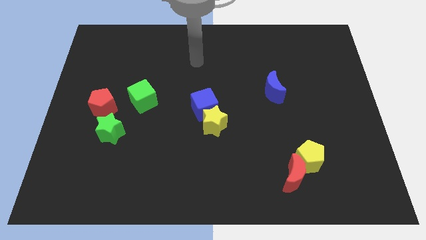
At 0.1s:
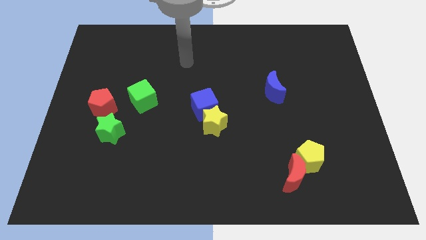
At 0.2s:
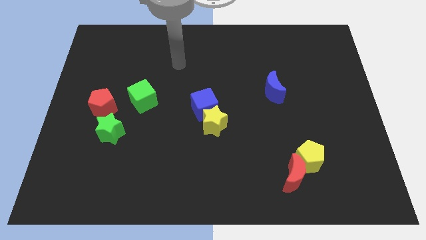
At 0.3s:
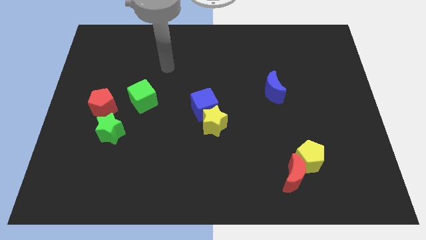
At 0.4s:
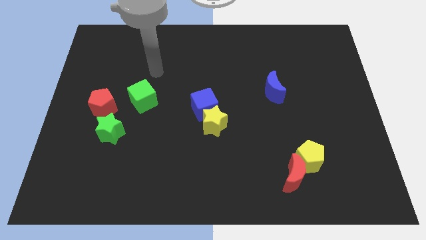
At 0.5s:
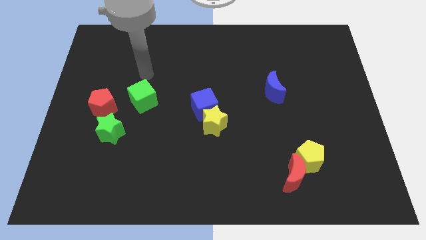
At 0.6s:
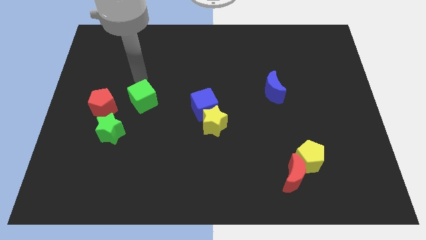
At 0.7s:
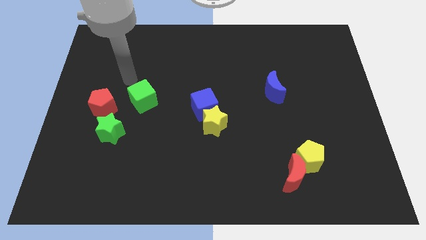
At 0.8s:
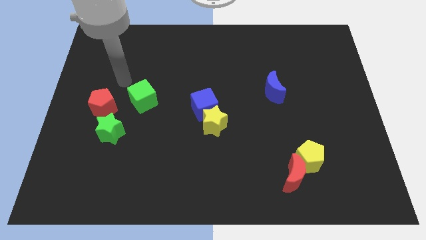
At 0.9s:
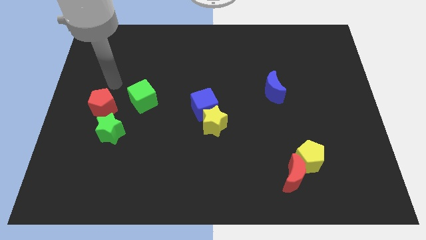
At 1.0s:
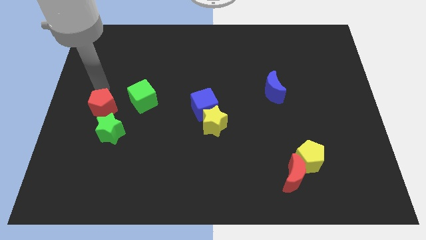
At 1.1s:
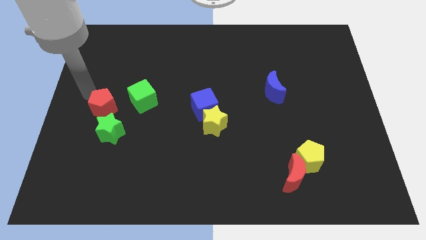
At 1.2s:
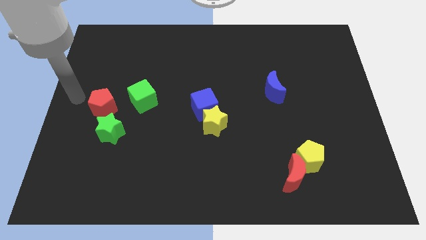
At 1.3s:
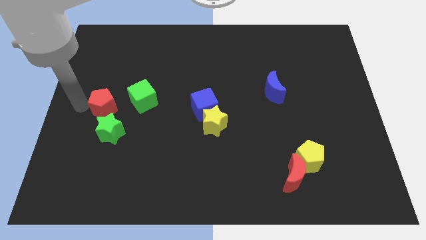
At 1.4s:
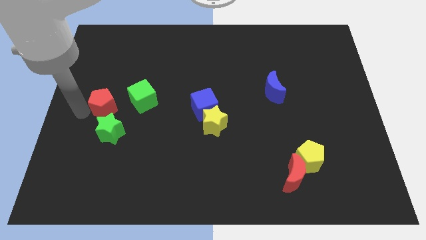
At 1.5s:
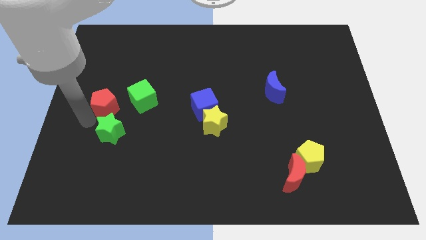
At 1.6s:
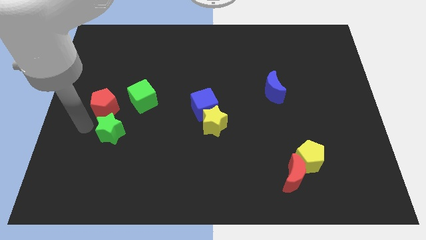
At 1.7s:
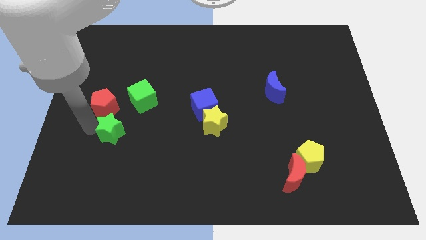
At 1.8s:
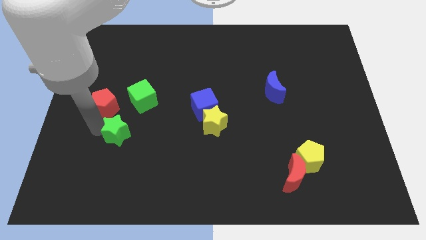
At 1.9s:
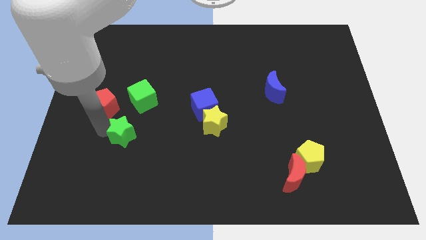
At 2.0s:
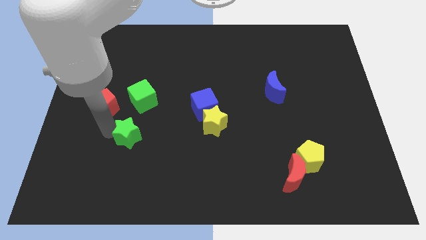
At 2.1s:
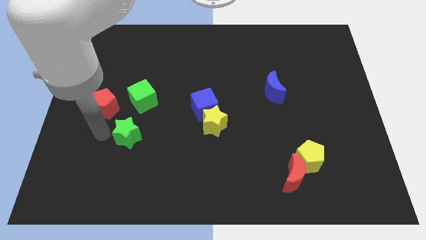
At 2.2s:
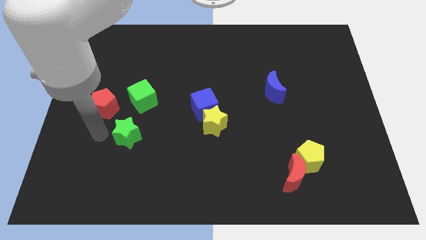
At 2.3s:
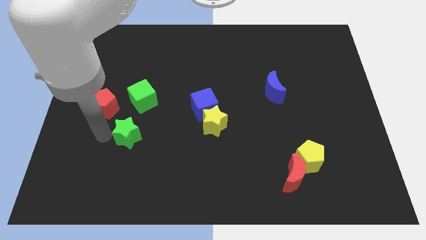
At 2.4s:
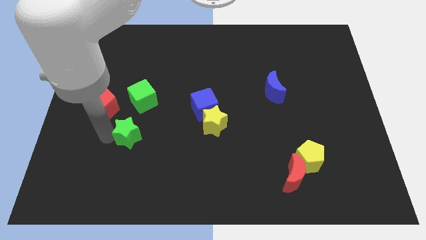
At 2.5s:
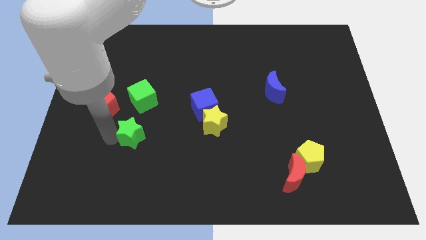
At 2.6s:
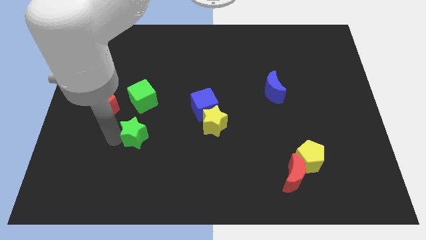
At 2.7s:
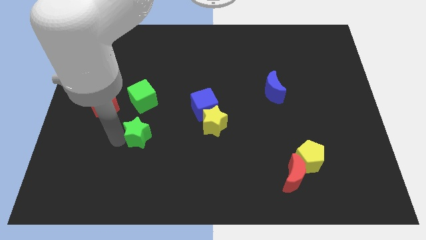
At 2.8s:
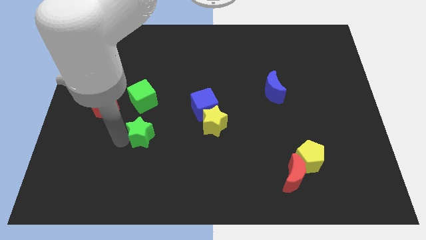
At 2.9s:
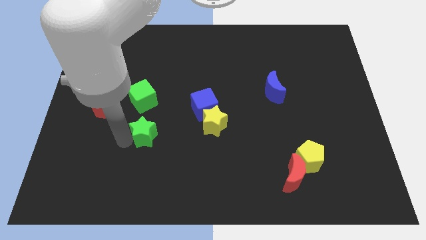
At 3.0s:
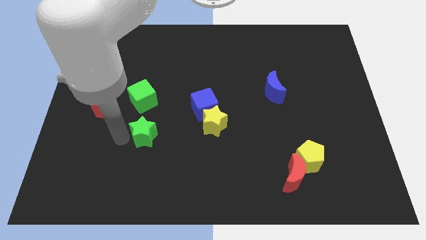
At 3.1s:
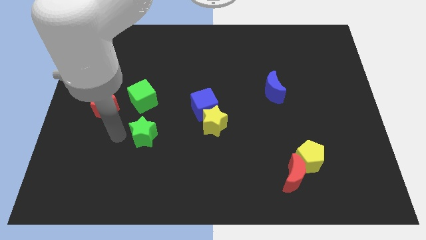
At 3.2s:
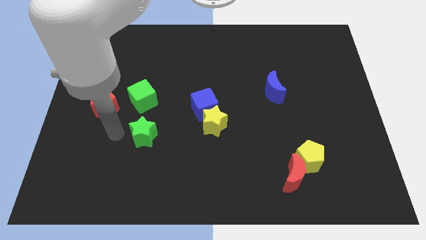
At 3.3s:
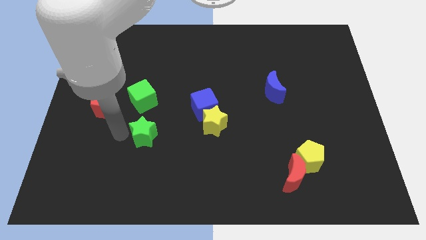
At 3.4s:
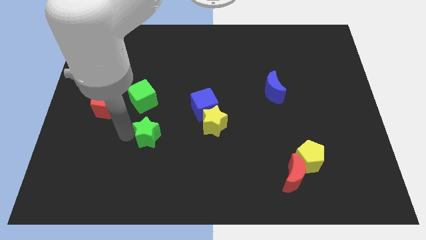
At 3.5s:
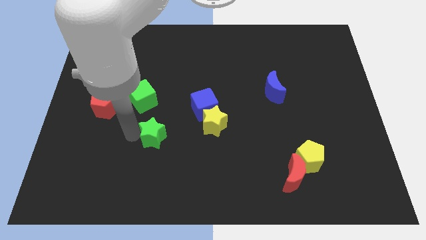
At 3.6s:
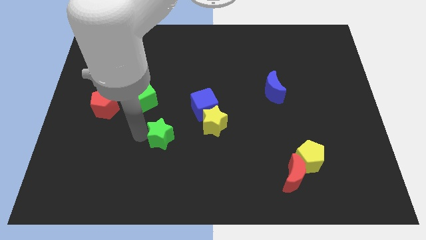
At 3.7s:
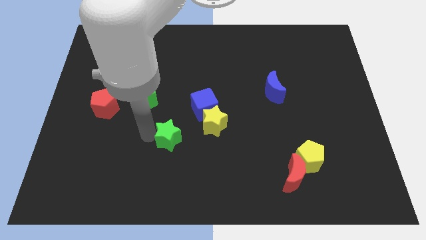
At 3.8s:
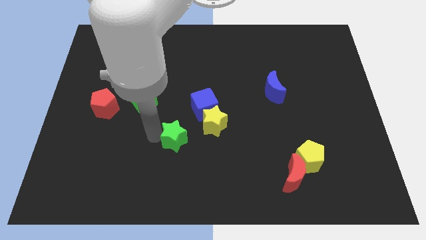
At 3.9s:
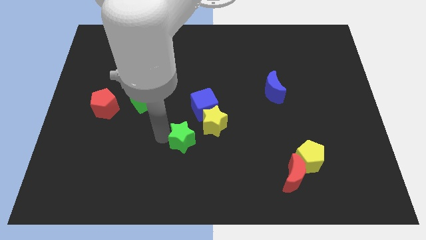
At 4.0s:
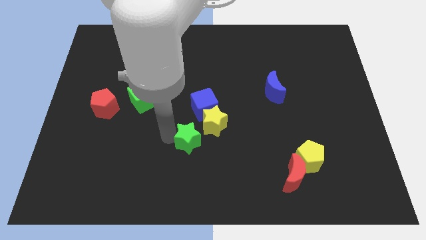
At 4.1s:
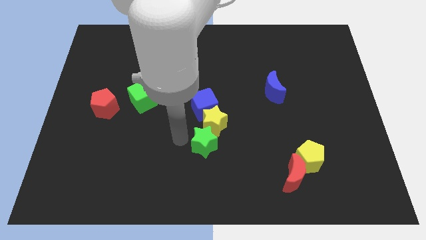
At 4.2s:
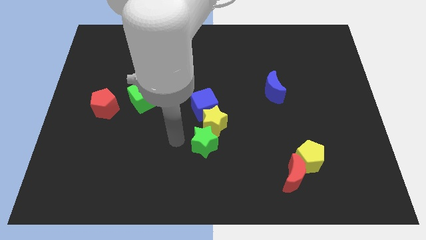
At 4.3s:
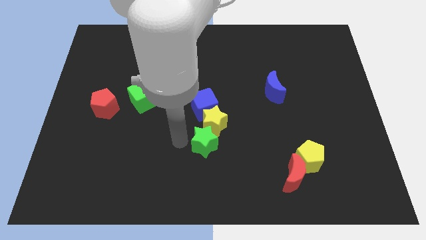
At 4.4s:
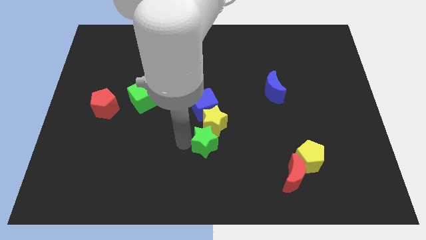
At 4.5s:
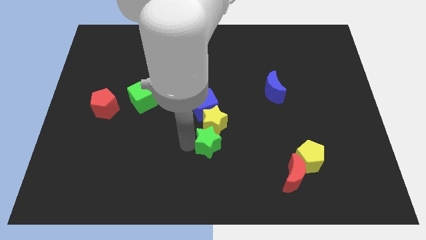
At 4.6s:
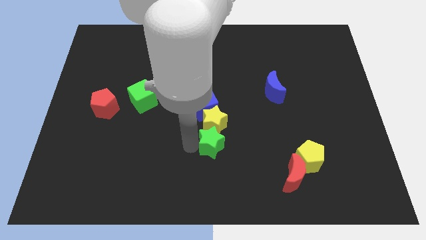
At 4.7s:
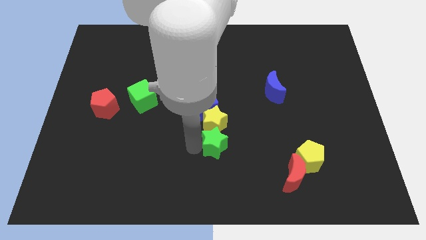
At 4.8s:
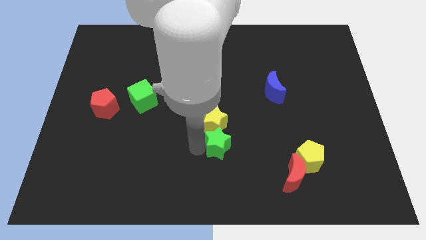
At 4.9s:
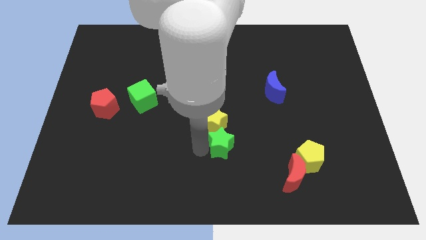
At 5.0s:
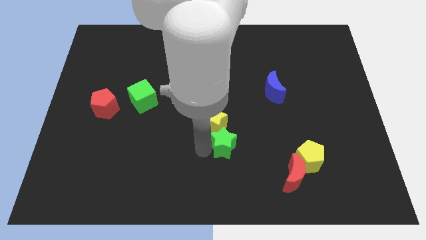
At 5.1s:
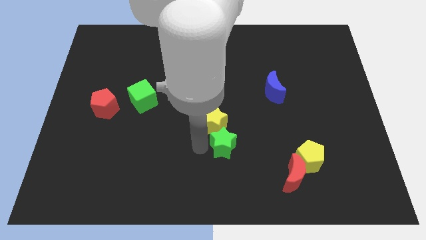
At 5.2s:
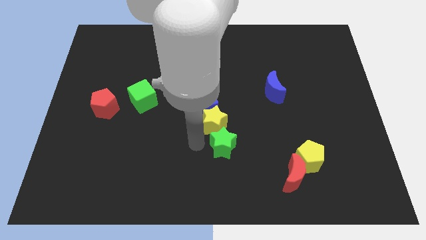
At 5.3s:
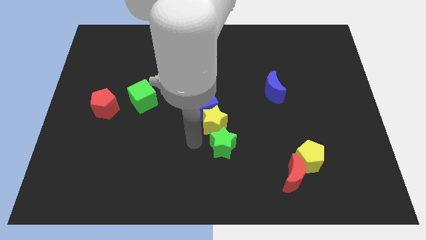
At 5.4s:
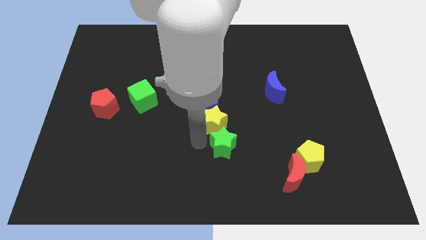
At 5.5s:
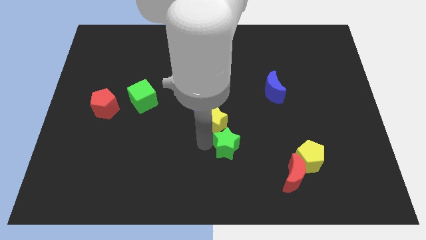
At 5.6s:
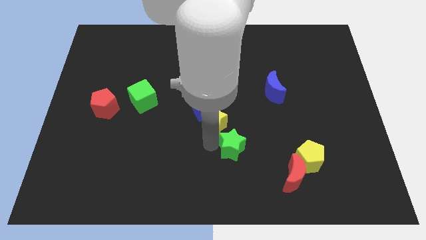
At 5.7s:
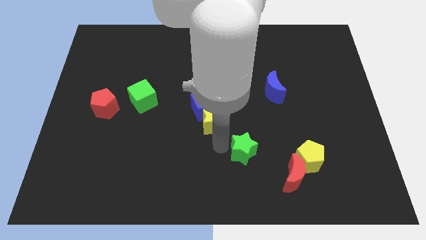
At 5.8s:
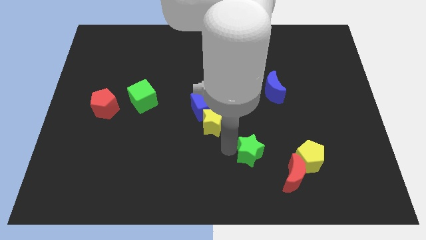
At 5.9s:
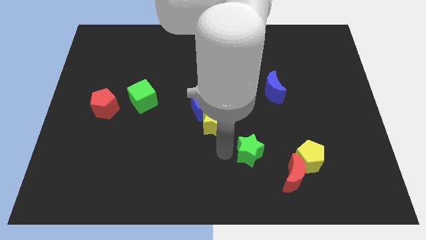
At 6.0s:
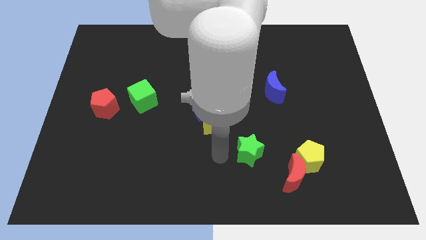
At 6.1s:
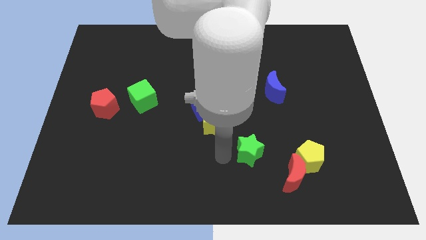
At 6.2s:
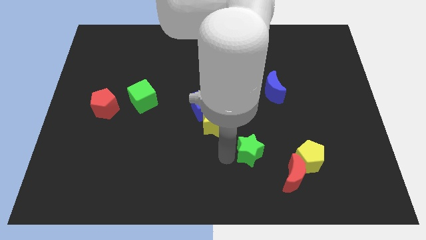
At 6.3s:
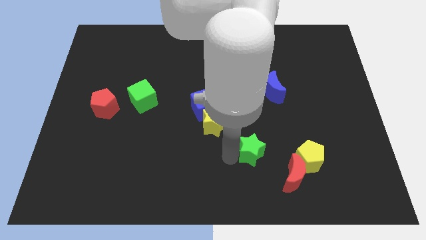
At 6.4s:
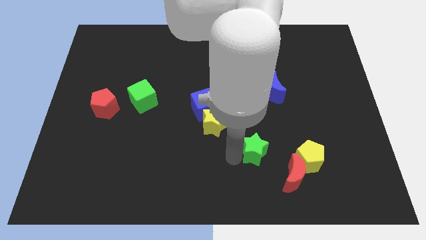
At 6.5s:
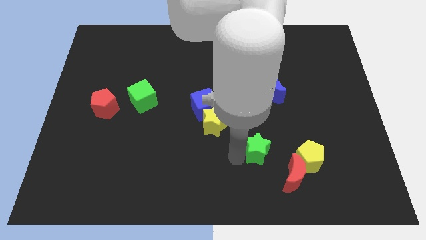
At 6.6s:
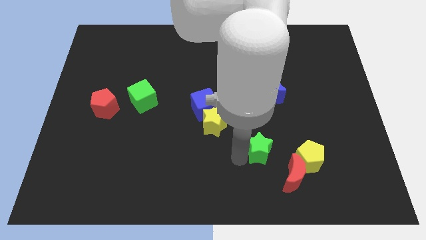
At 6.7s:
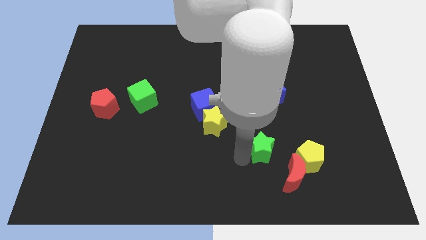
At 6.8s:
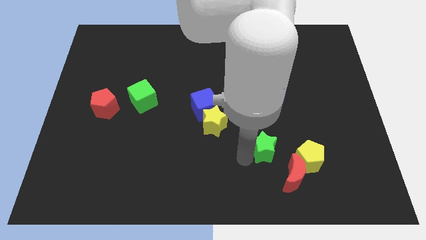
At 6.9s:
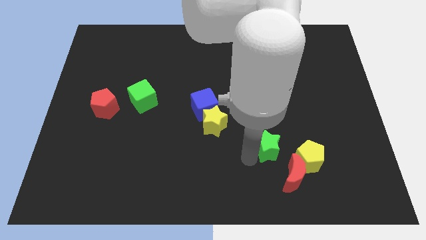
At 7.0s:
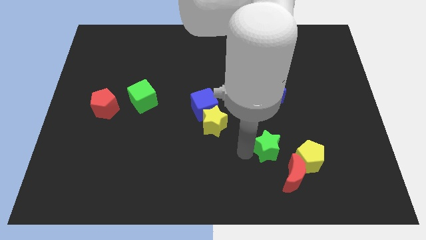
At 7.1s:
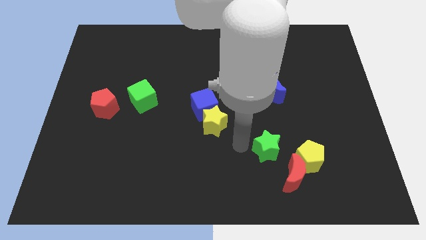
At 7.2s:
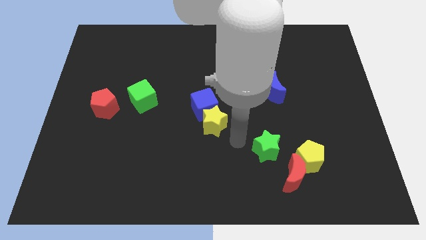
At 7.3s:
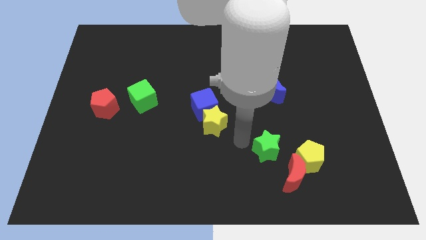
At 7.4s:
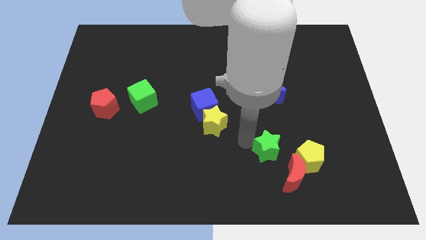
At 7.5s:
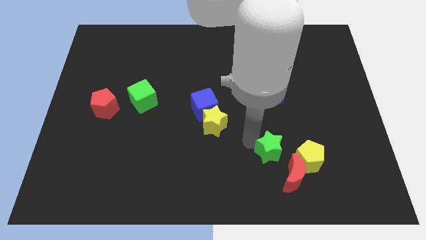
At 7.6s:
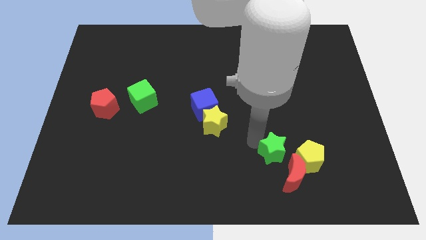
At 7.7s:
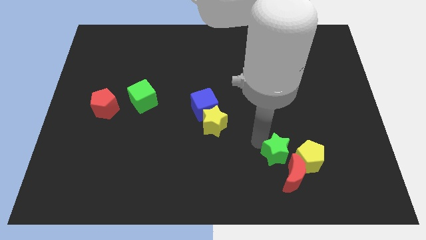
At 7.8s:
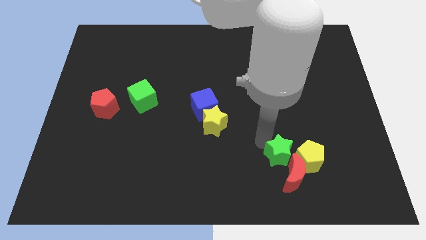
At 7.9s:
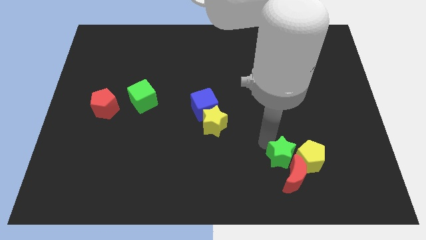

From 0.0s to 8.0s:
push the green star towards the yellow pentagon
